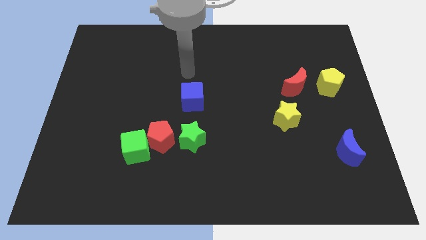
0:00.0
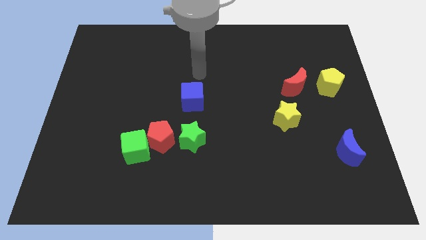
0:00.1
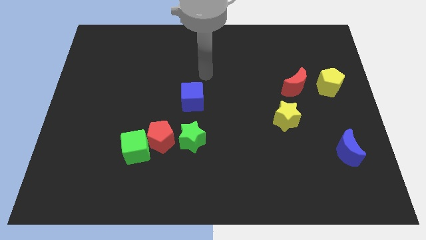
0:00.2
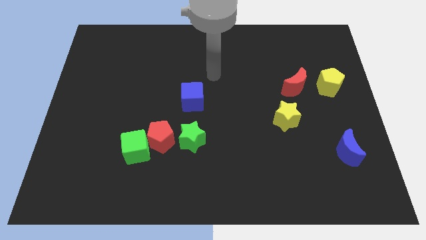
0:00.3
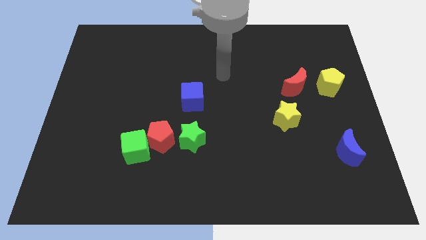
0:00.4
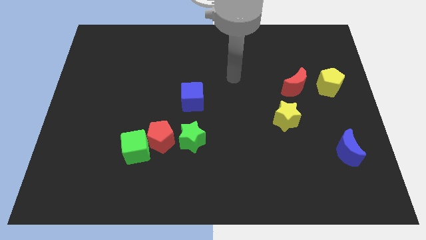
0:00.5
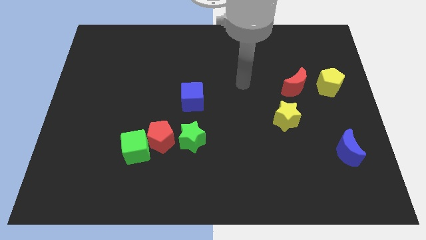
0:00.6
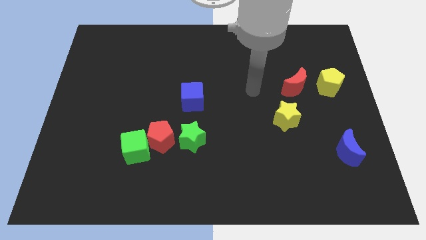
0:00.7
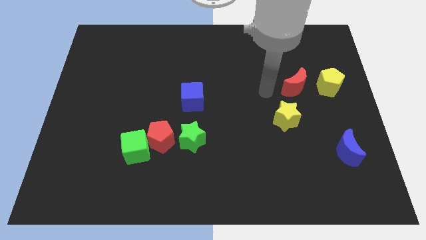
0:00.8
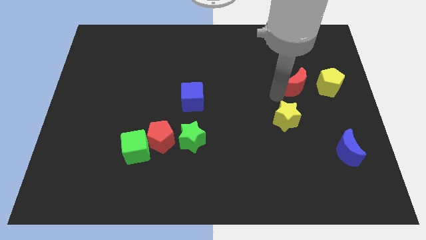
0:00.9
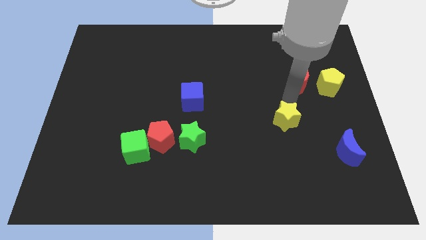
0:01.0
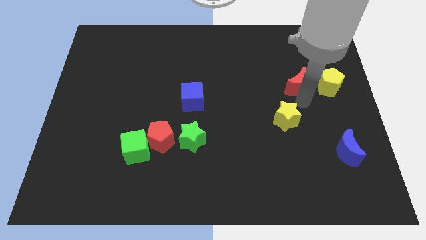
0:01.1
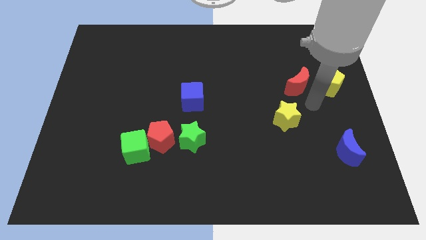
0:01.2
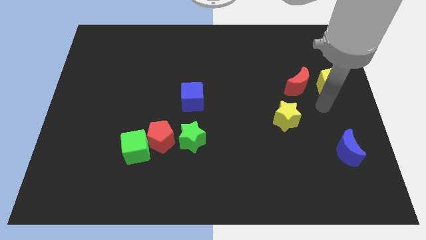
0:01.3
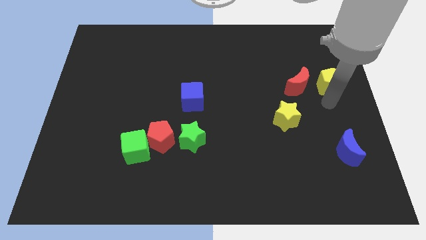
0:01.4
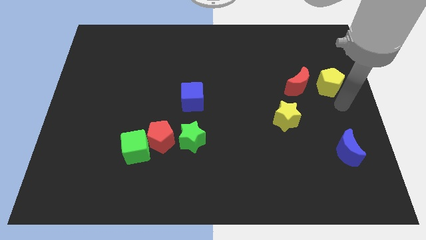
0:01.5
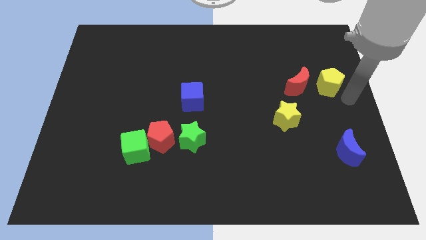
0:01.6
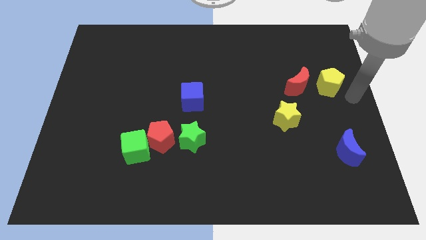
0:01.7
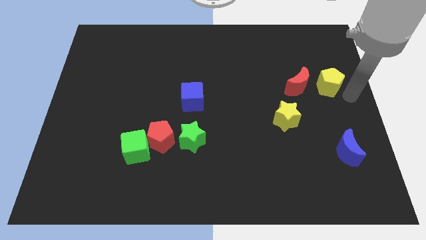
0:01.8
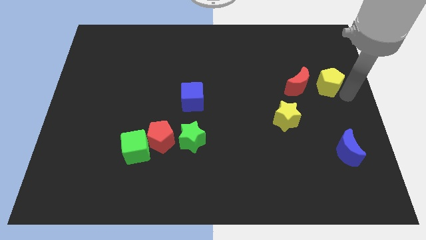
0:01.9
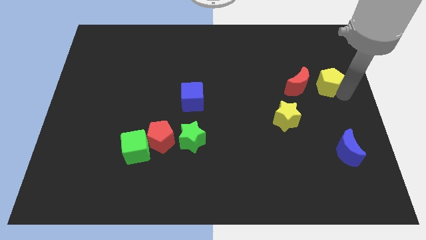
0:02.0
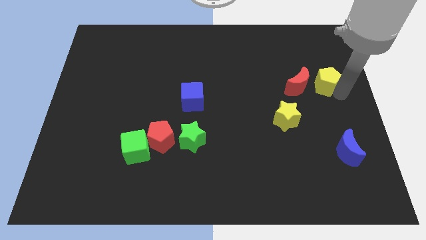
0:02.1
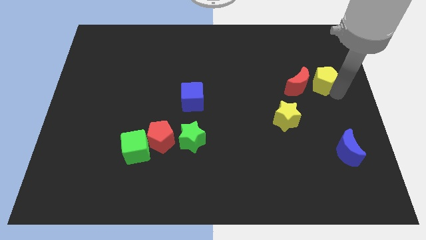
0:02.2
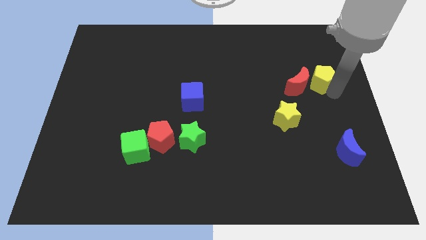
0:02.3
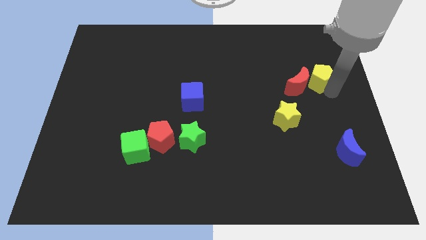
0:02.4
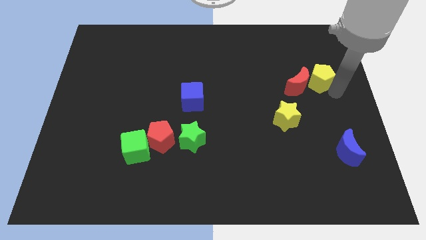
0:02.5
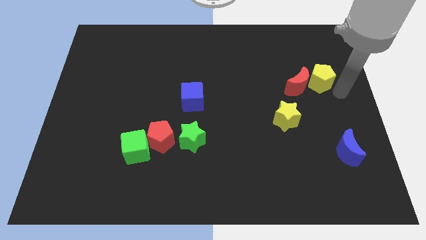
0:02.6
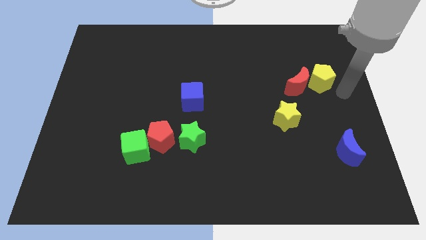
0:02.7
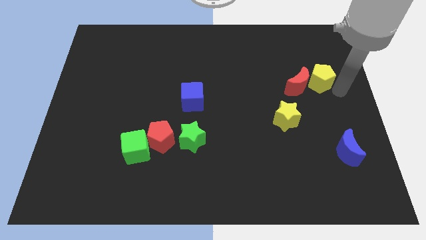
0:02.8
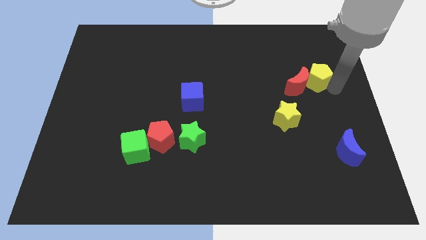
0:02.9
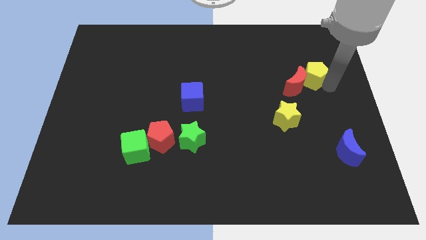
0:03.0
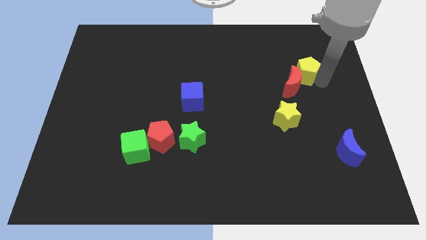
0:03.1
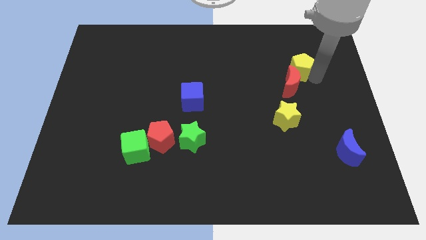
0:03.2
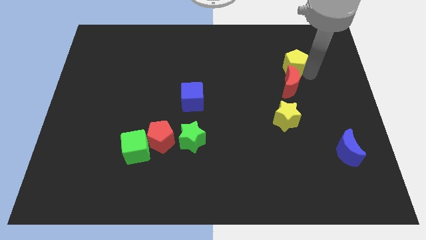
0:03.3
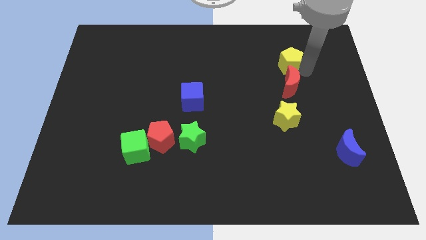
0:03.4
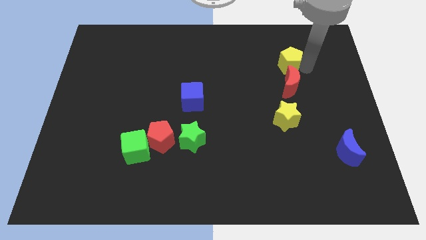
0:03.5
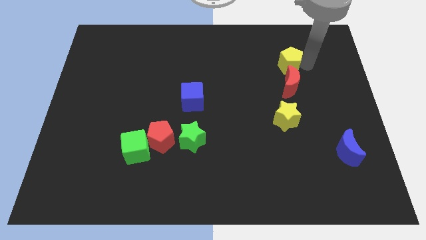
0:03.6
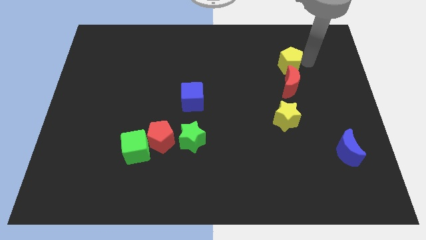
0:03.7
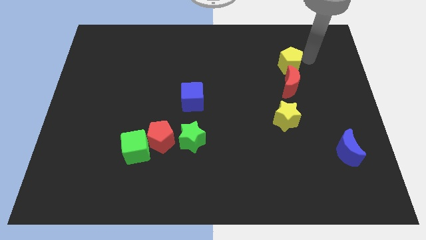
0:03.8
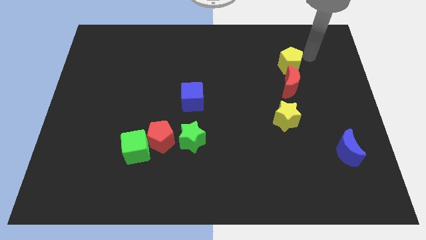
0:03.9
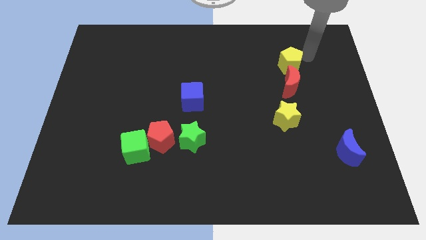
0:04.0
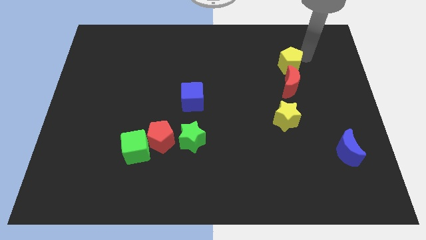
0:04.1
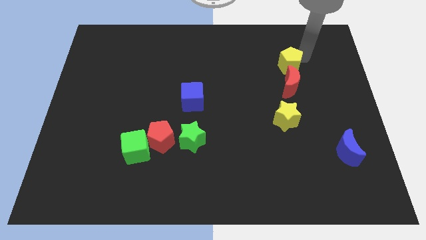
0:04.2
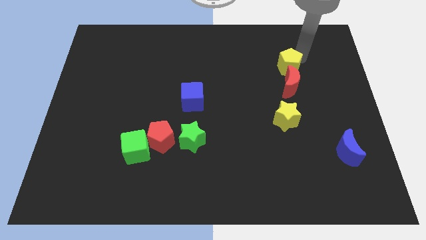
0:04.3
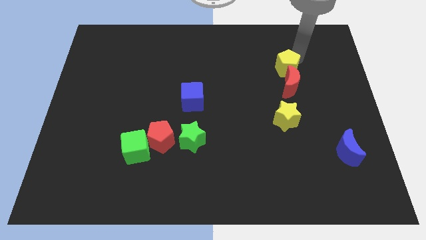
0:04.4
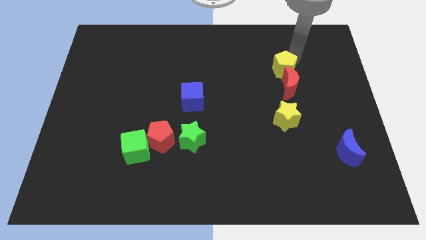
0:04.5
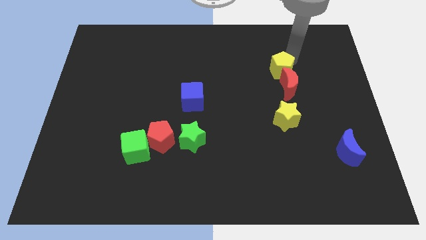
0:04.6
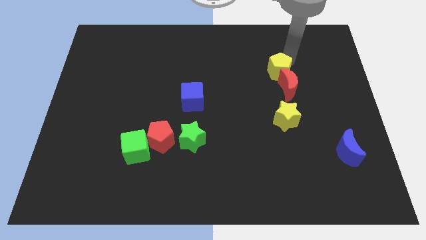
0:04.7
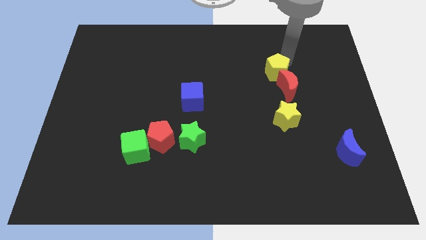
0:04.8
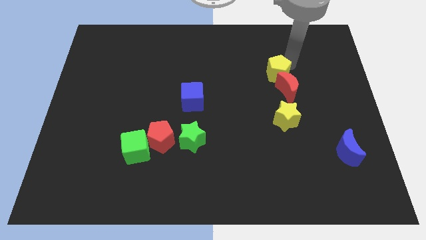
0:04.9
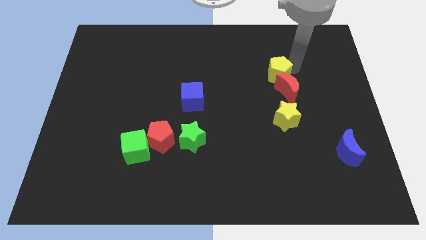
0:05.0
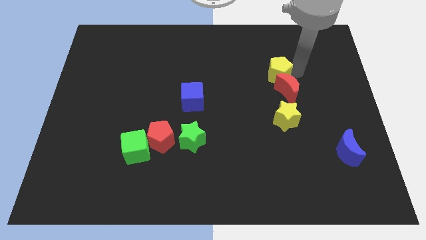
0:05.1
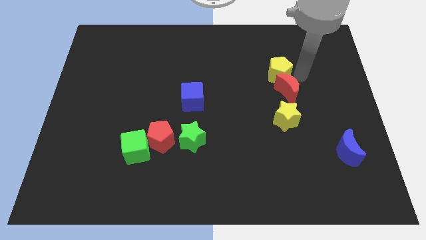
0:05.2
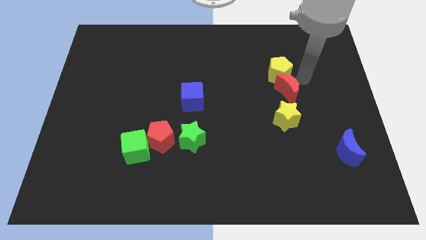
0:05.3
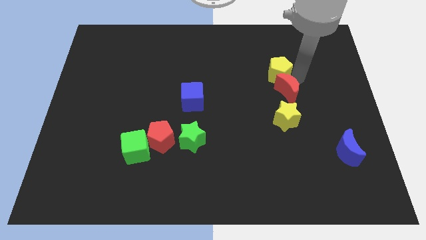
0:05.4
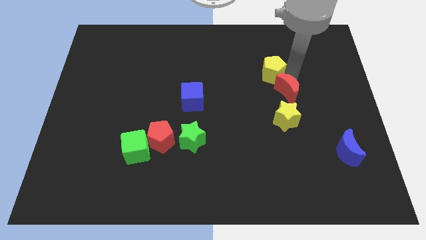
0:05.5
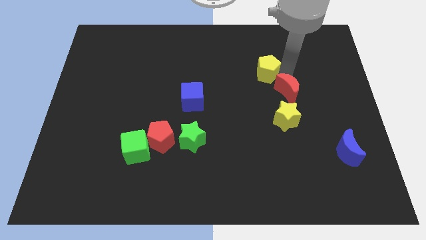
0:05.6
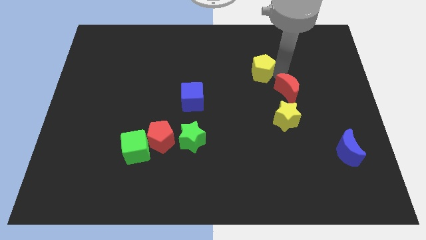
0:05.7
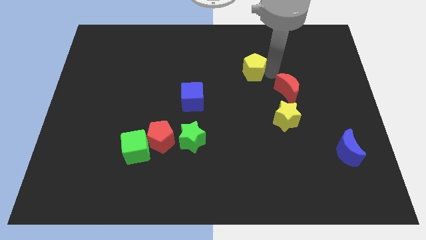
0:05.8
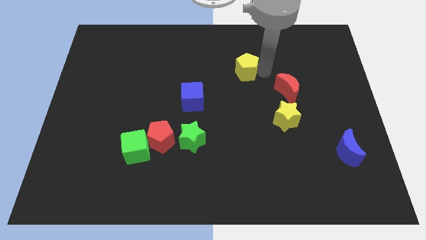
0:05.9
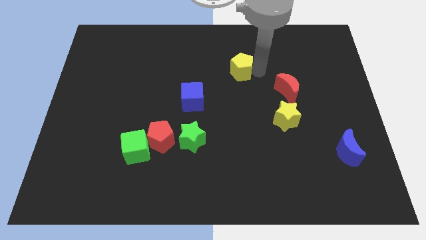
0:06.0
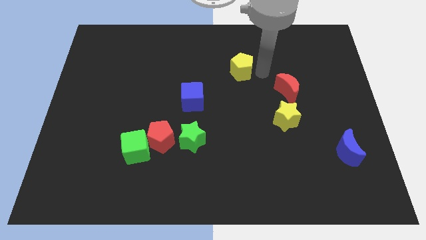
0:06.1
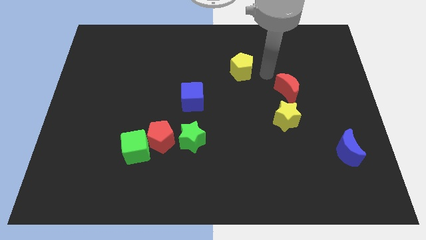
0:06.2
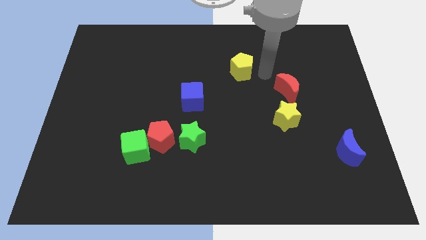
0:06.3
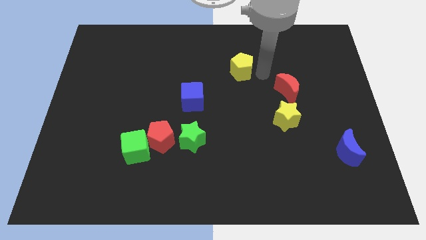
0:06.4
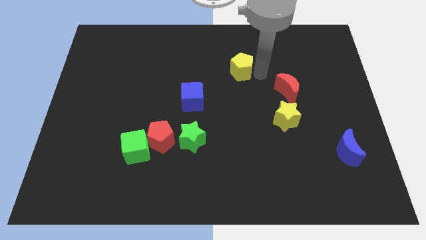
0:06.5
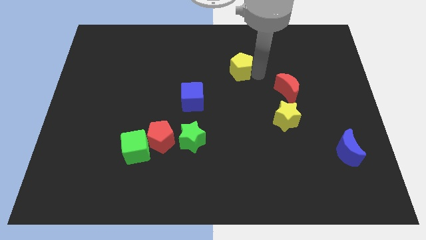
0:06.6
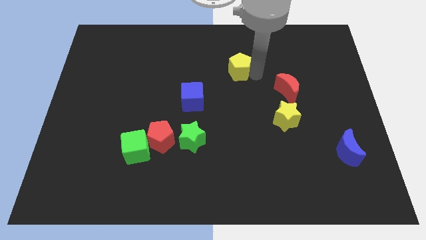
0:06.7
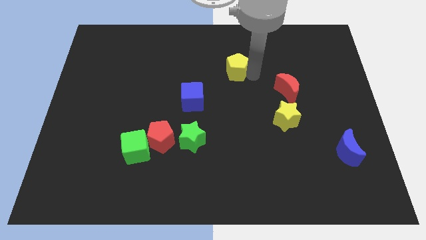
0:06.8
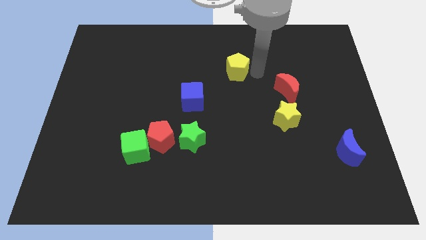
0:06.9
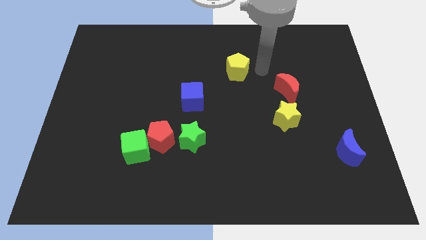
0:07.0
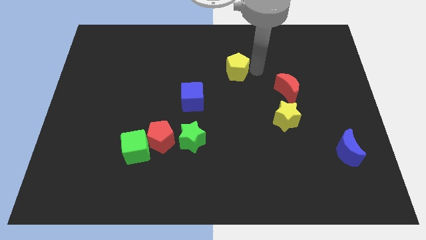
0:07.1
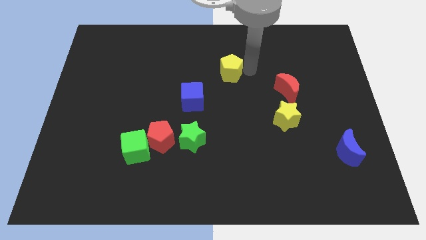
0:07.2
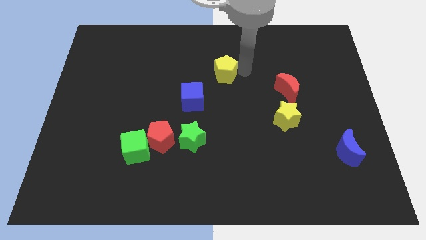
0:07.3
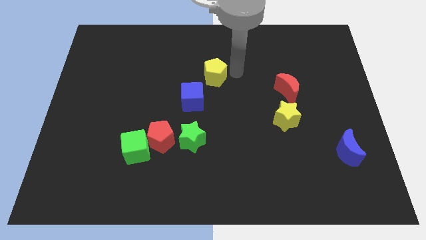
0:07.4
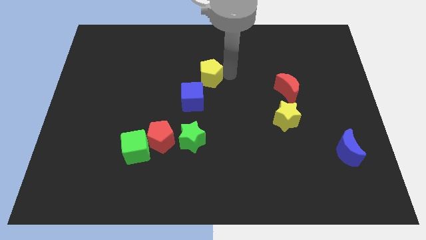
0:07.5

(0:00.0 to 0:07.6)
move the yellow pentagon to the top of the blue cube
